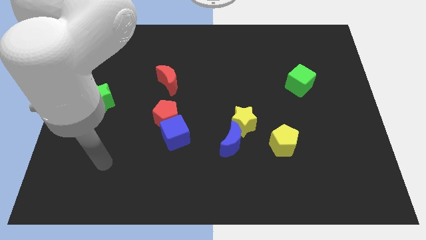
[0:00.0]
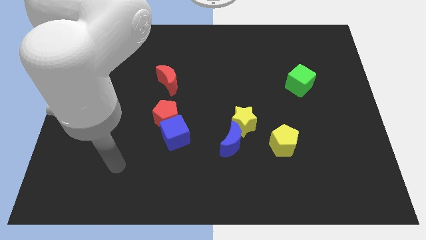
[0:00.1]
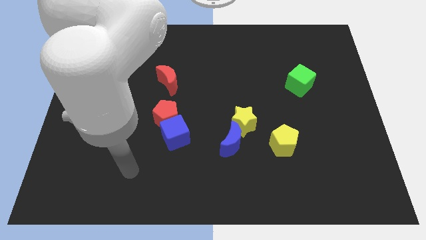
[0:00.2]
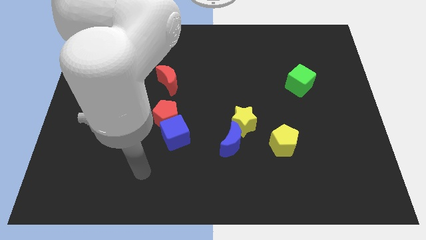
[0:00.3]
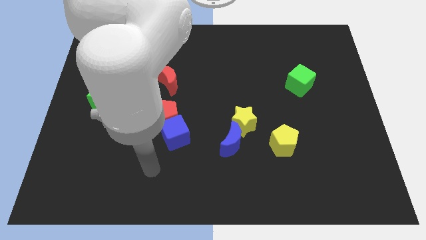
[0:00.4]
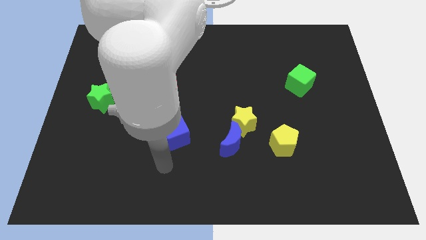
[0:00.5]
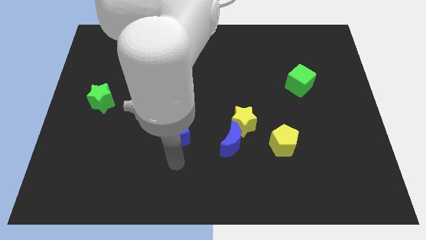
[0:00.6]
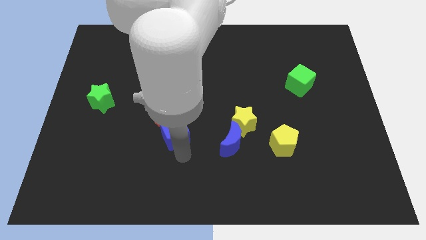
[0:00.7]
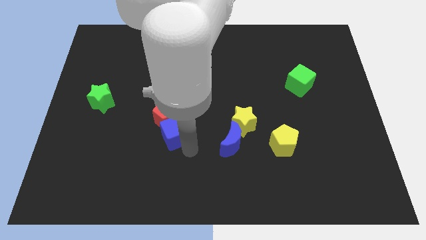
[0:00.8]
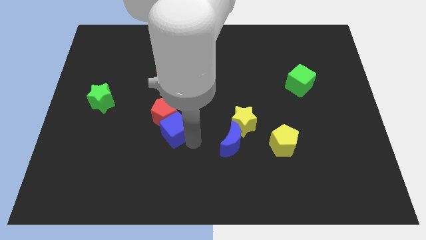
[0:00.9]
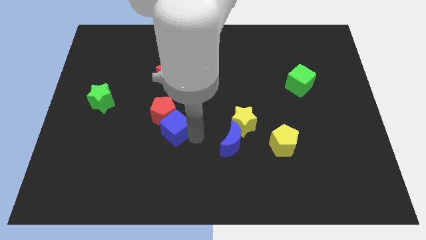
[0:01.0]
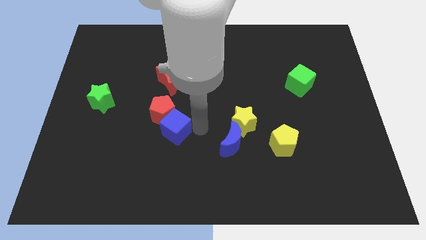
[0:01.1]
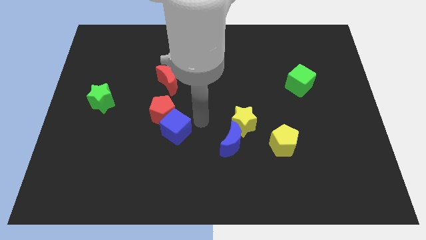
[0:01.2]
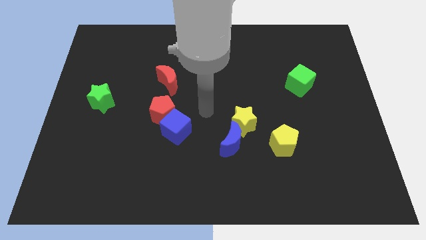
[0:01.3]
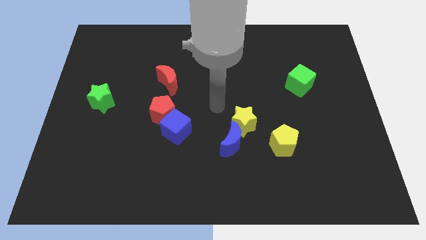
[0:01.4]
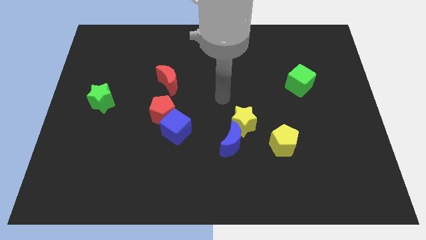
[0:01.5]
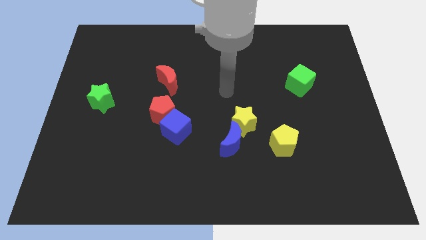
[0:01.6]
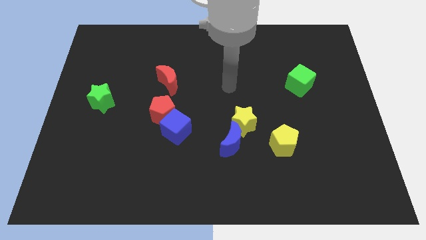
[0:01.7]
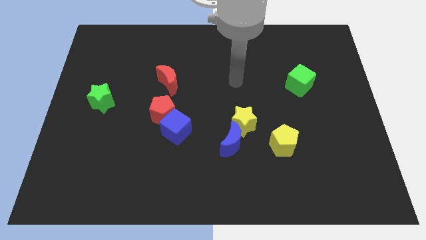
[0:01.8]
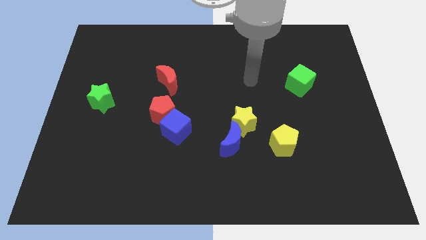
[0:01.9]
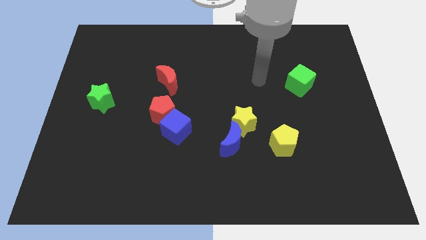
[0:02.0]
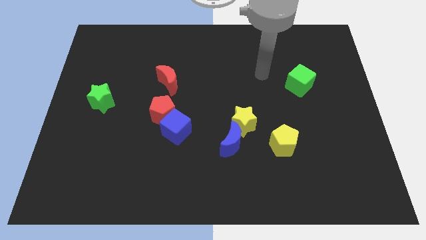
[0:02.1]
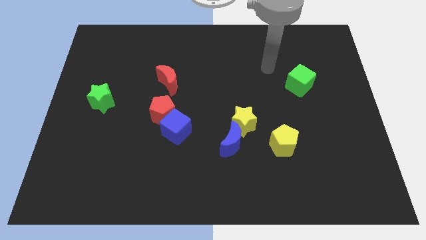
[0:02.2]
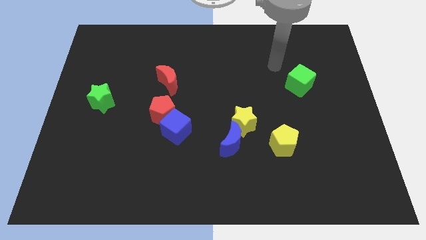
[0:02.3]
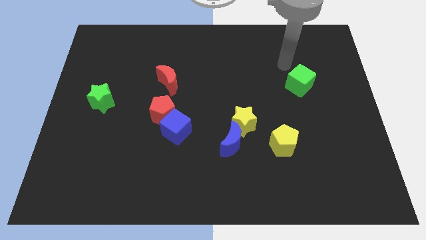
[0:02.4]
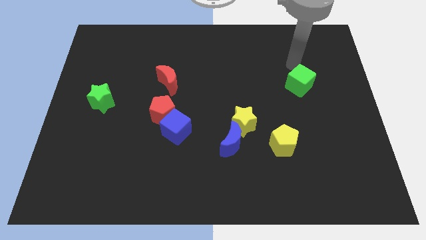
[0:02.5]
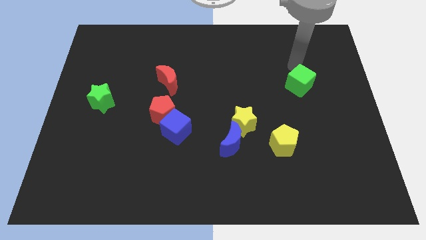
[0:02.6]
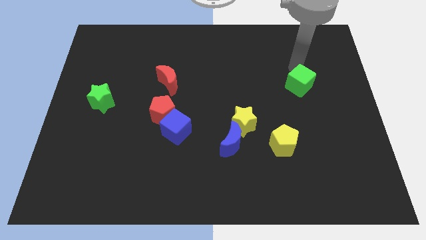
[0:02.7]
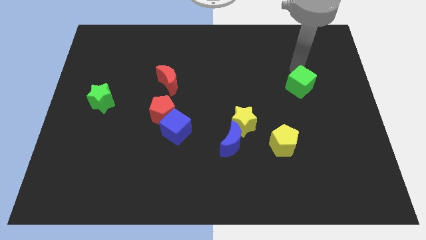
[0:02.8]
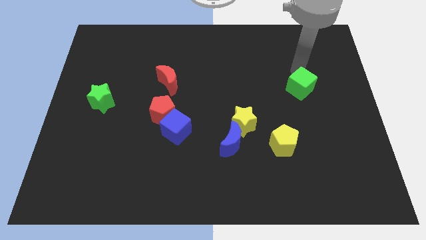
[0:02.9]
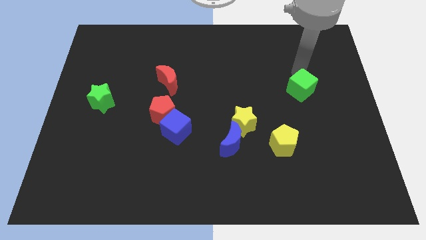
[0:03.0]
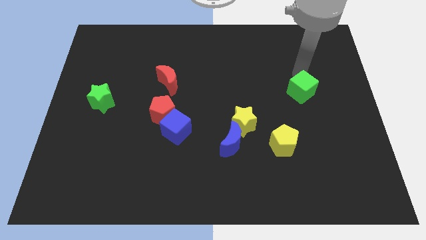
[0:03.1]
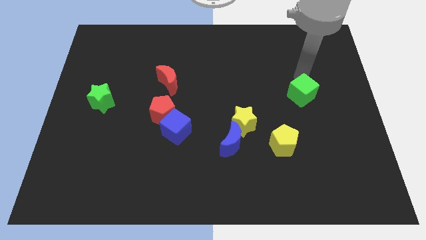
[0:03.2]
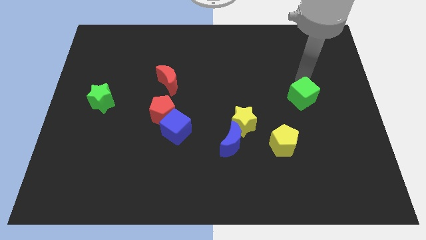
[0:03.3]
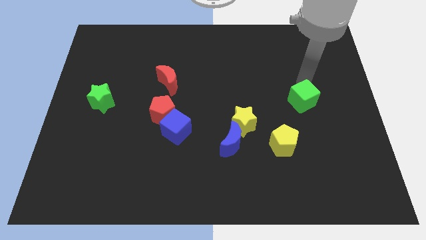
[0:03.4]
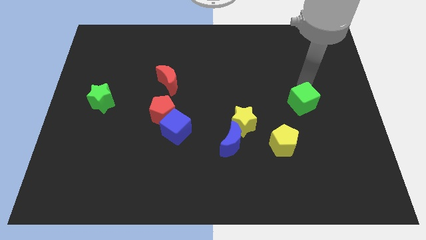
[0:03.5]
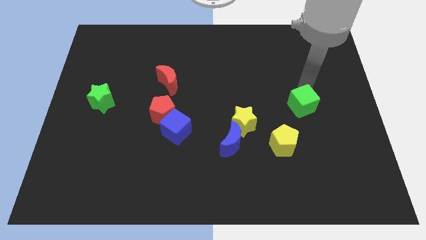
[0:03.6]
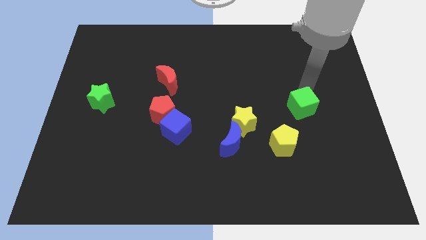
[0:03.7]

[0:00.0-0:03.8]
move the green cube a little down

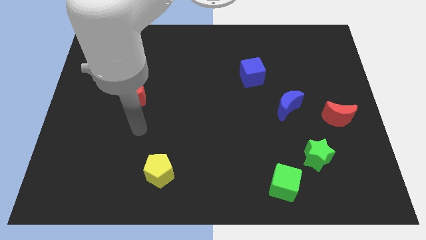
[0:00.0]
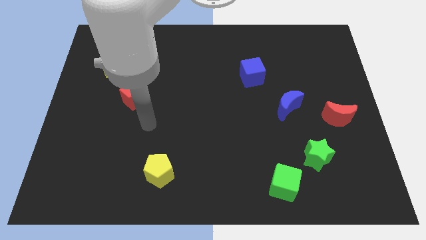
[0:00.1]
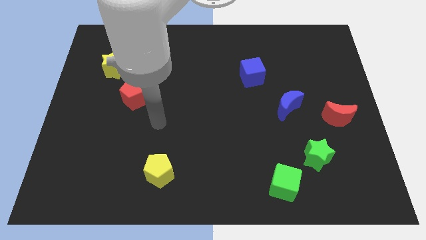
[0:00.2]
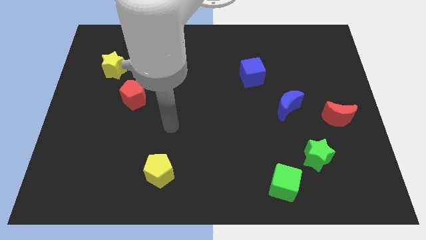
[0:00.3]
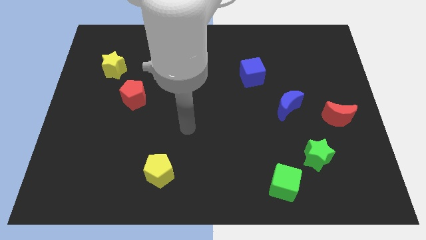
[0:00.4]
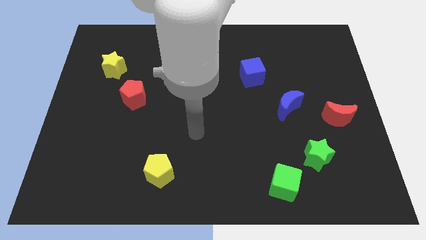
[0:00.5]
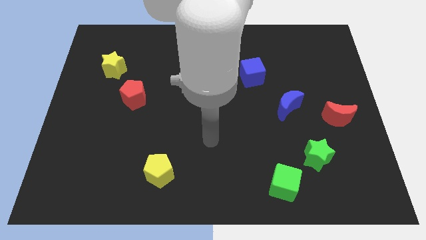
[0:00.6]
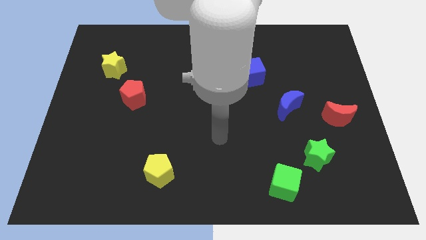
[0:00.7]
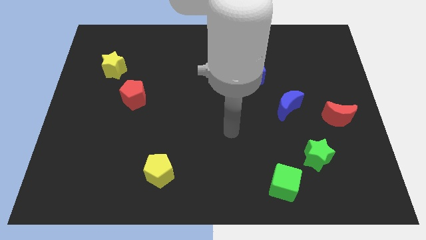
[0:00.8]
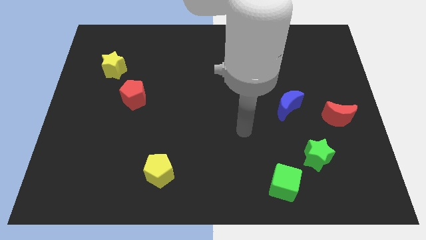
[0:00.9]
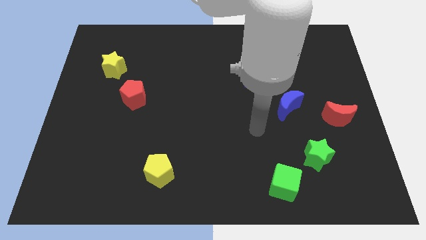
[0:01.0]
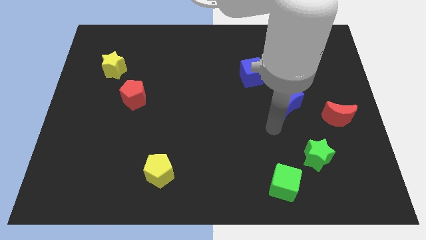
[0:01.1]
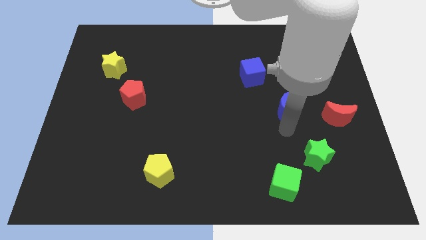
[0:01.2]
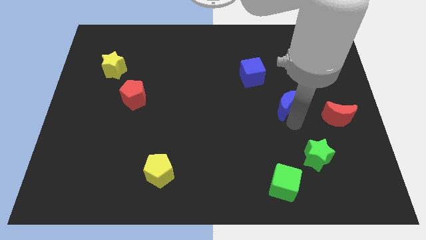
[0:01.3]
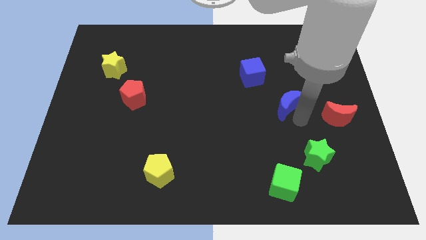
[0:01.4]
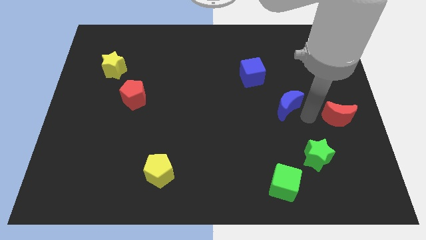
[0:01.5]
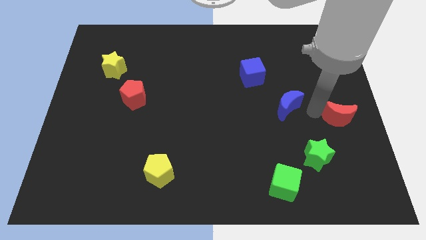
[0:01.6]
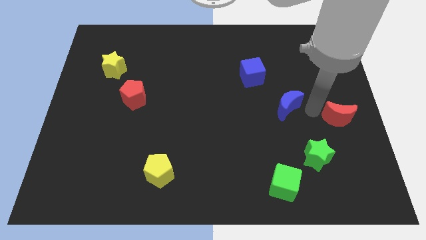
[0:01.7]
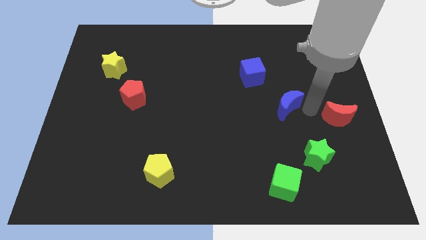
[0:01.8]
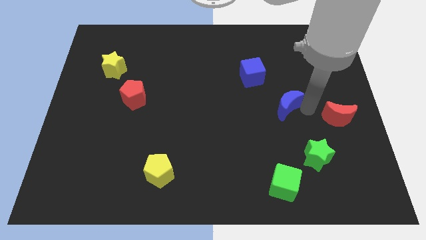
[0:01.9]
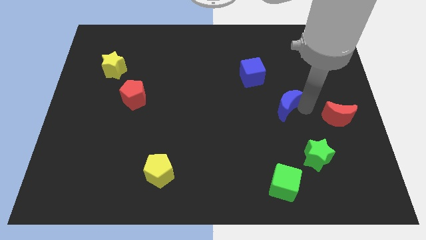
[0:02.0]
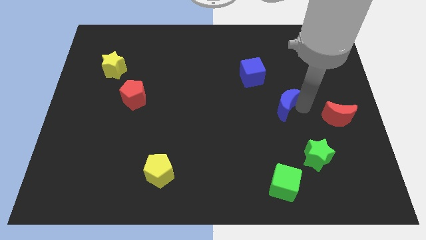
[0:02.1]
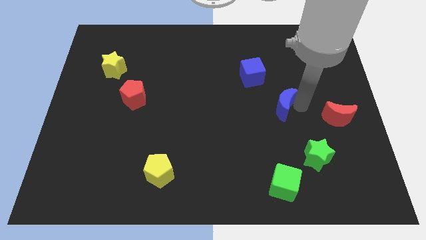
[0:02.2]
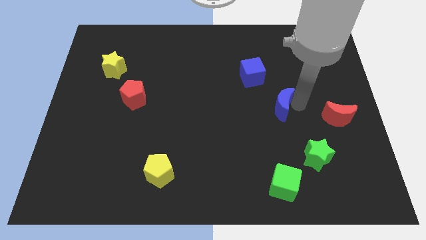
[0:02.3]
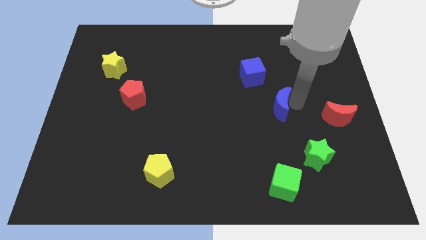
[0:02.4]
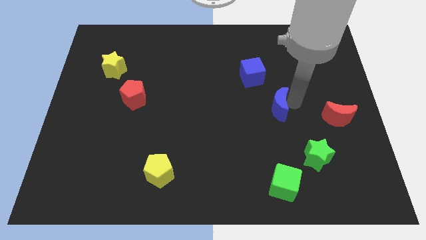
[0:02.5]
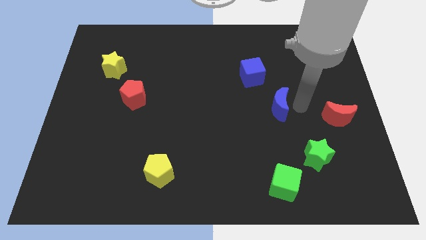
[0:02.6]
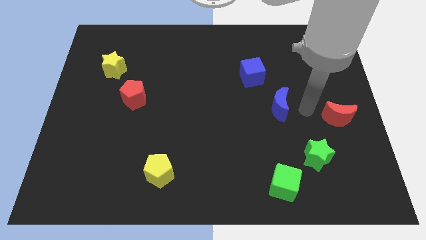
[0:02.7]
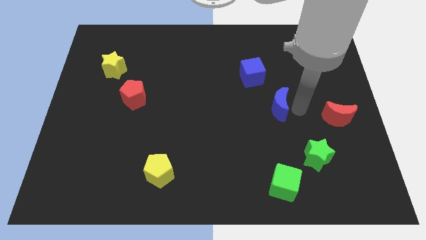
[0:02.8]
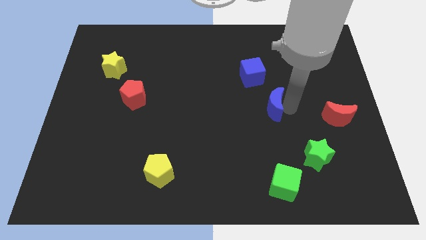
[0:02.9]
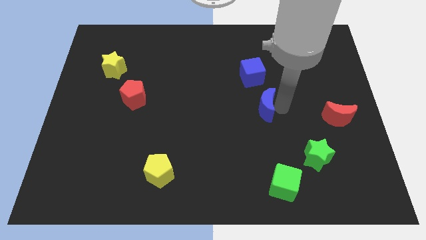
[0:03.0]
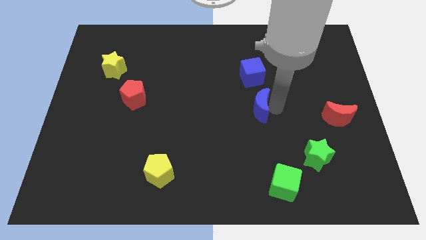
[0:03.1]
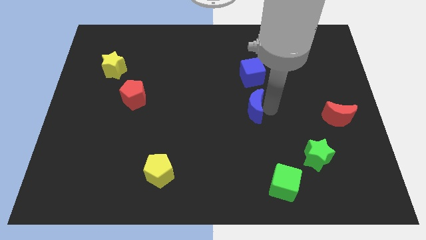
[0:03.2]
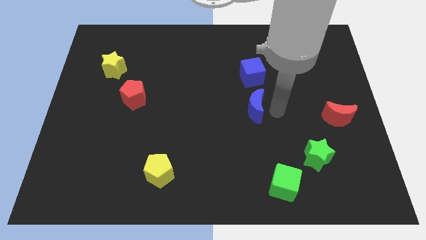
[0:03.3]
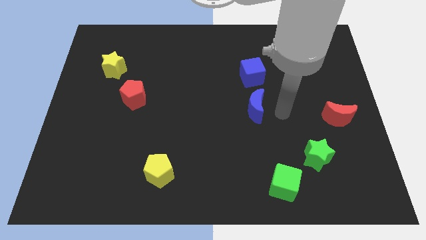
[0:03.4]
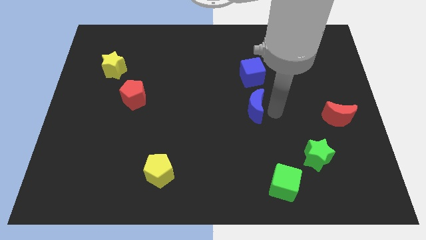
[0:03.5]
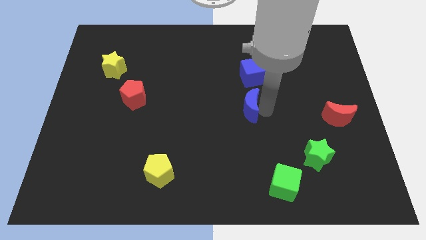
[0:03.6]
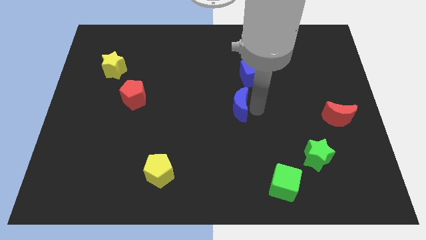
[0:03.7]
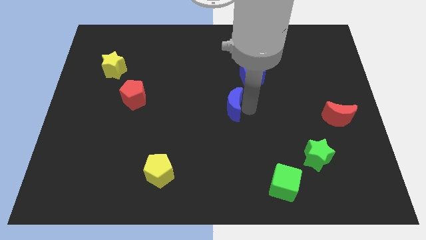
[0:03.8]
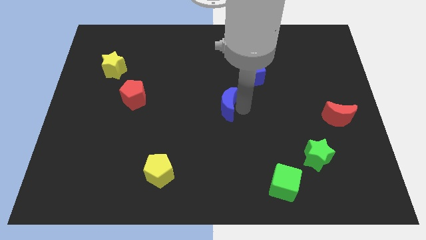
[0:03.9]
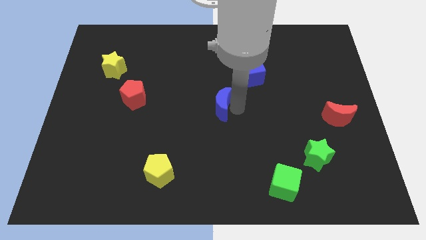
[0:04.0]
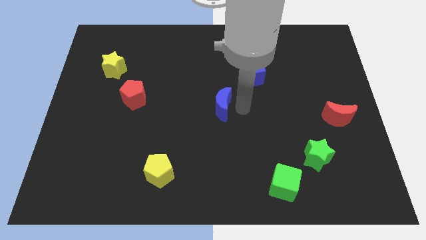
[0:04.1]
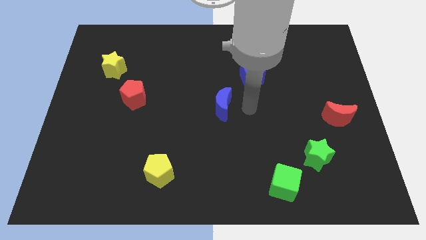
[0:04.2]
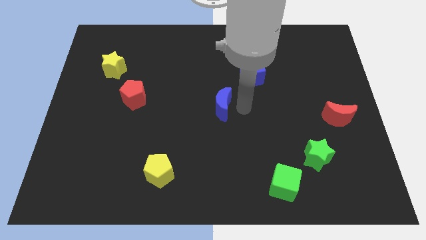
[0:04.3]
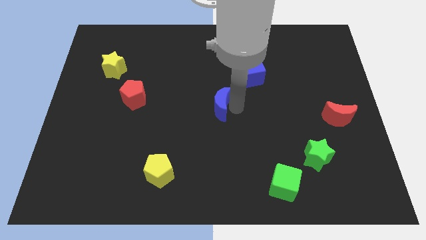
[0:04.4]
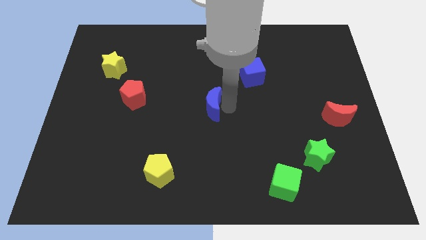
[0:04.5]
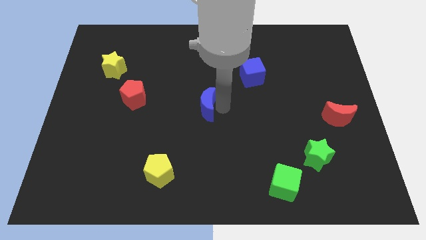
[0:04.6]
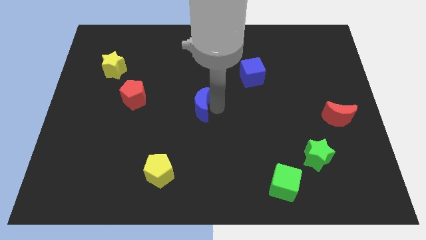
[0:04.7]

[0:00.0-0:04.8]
push the blue moon left
